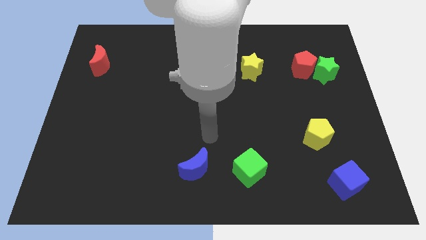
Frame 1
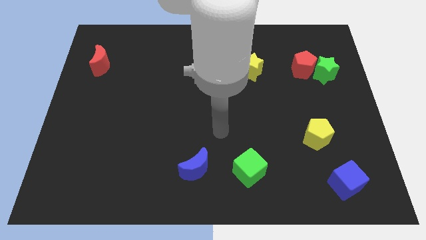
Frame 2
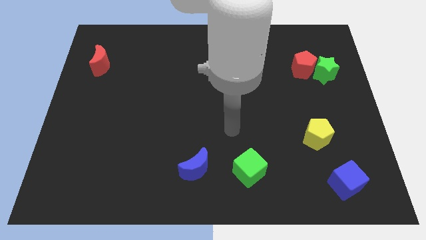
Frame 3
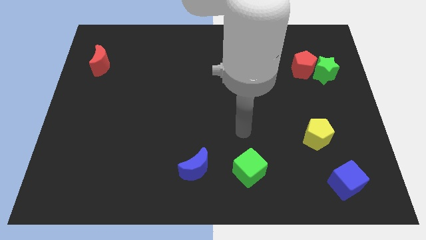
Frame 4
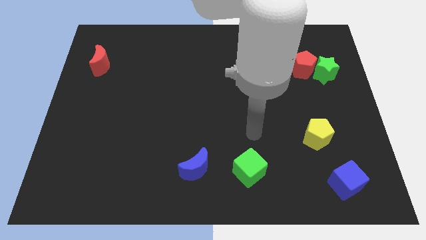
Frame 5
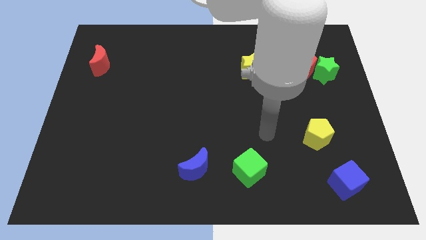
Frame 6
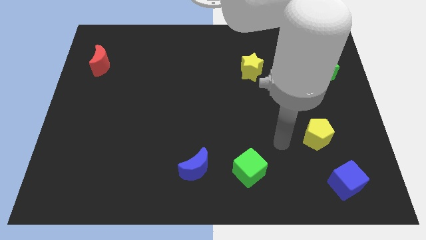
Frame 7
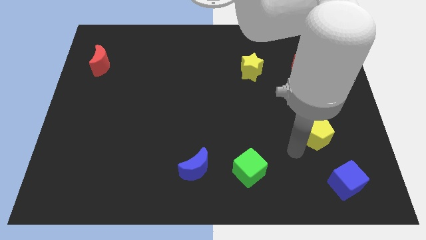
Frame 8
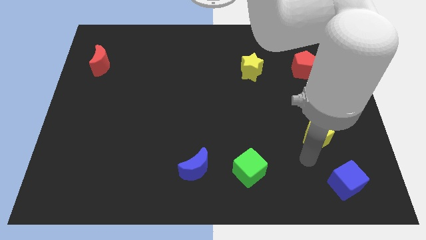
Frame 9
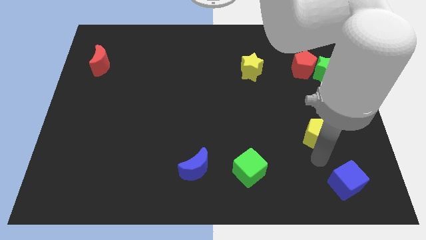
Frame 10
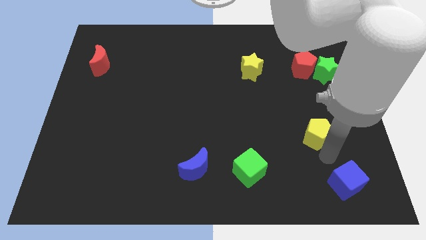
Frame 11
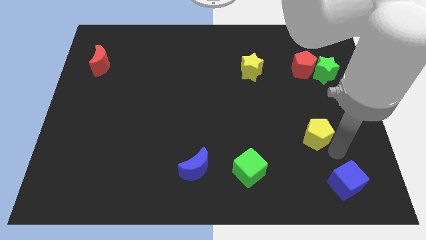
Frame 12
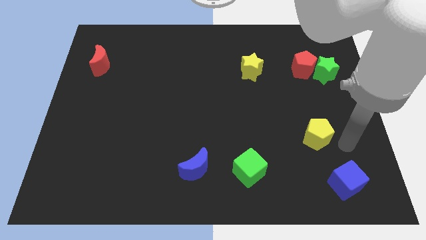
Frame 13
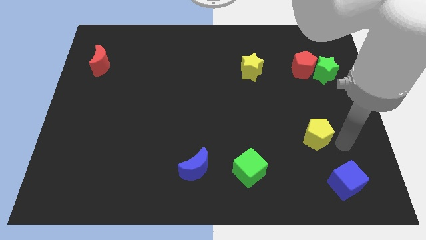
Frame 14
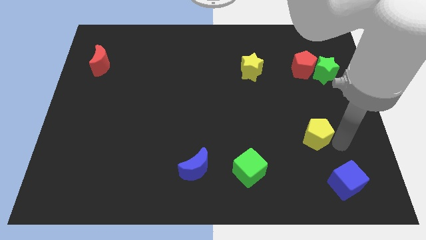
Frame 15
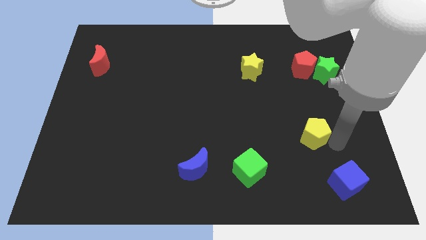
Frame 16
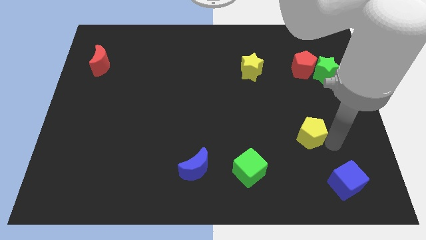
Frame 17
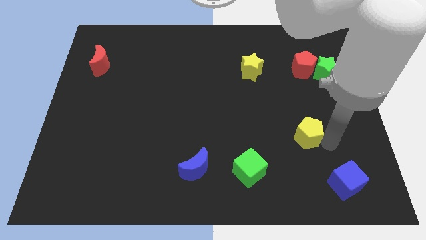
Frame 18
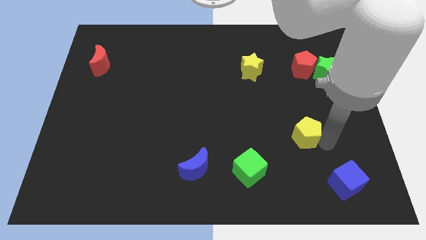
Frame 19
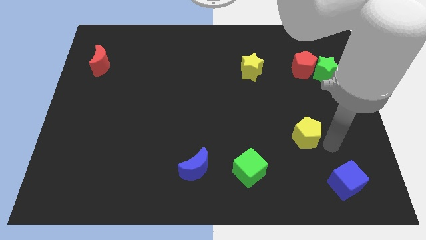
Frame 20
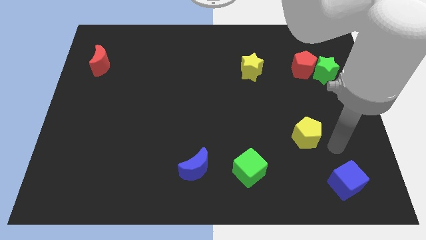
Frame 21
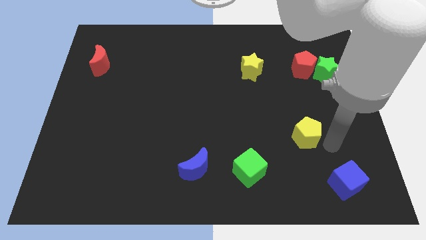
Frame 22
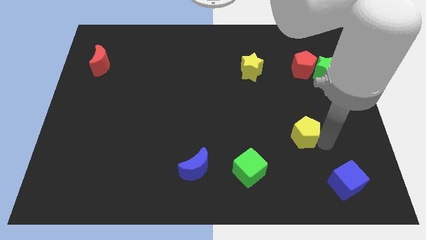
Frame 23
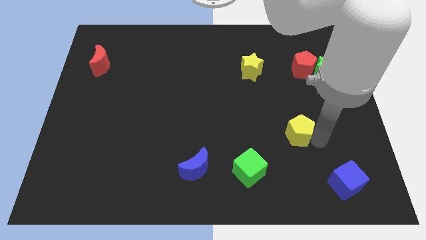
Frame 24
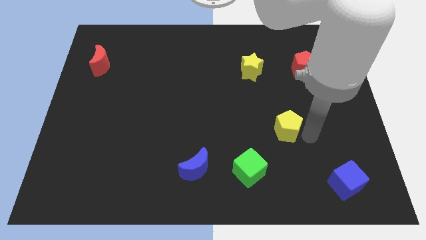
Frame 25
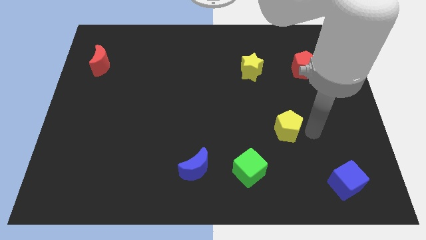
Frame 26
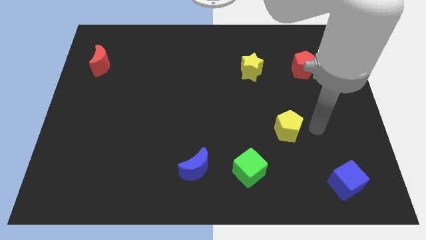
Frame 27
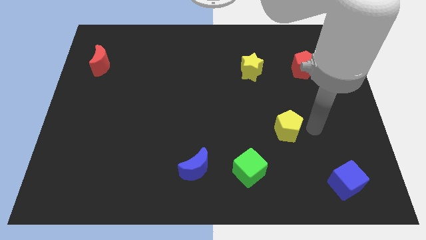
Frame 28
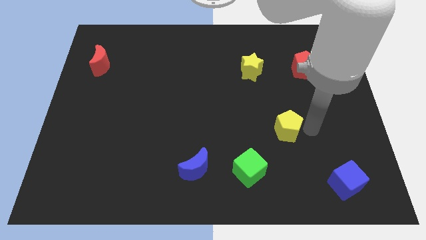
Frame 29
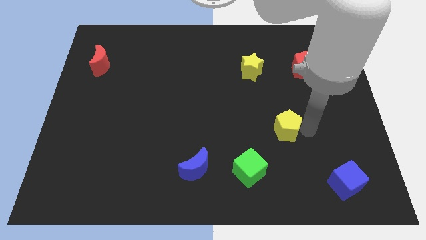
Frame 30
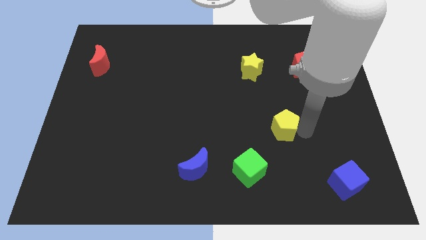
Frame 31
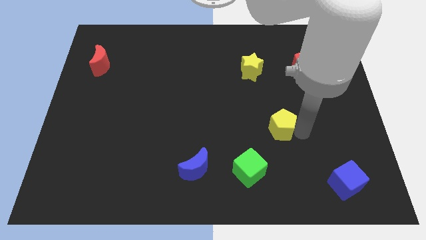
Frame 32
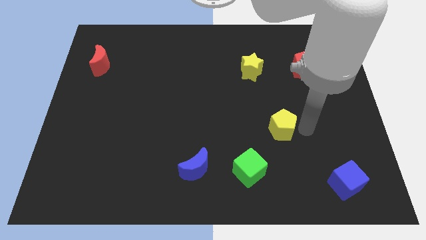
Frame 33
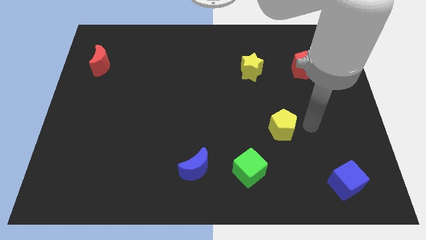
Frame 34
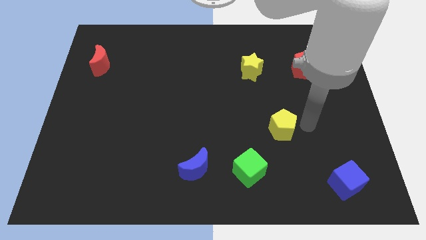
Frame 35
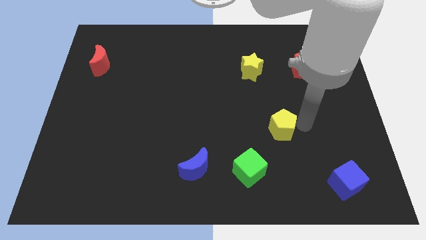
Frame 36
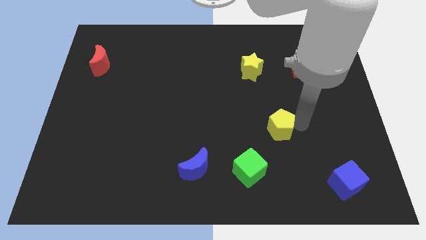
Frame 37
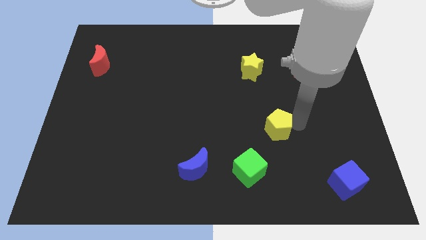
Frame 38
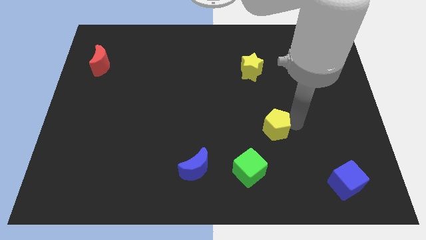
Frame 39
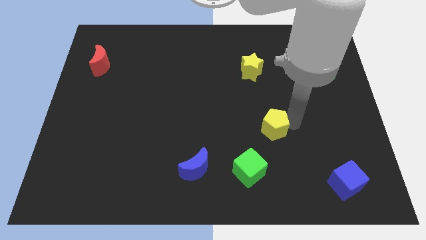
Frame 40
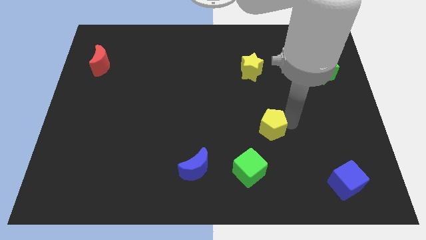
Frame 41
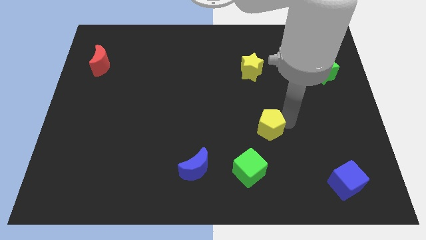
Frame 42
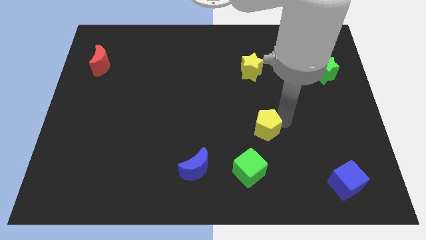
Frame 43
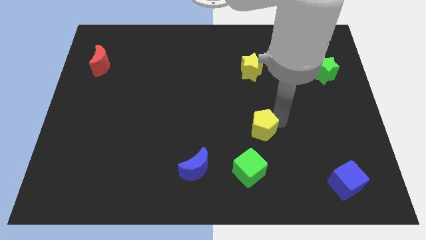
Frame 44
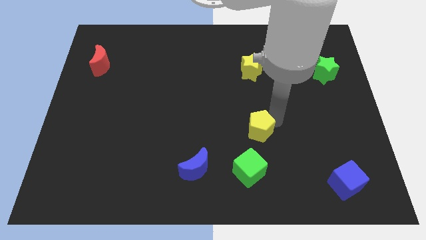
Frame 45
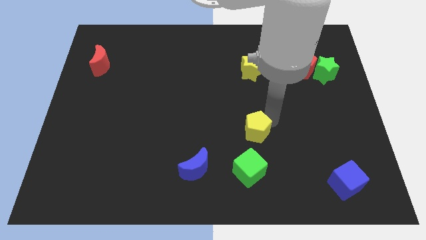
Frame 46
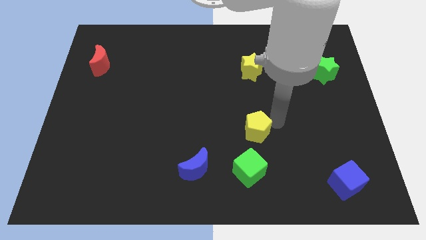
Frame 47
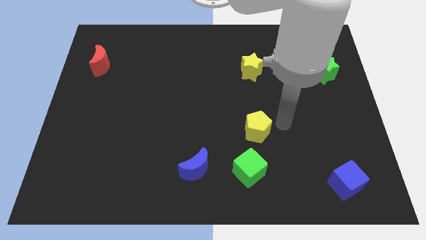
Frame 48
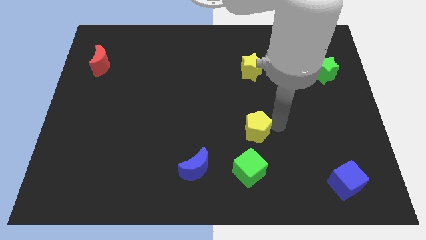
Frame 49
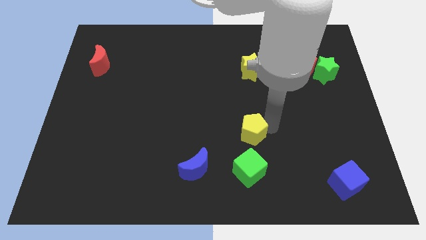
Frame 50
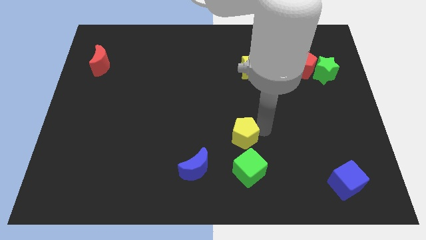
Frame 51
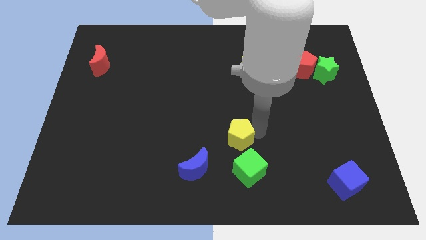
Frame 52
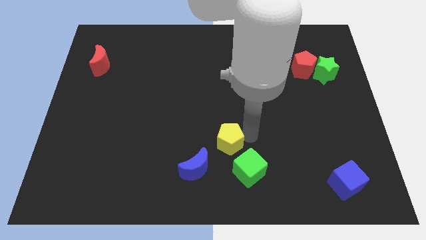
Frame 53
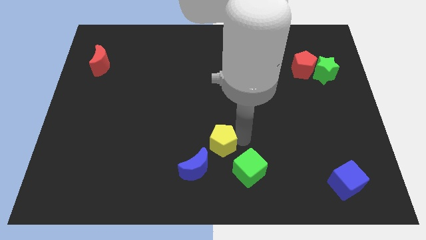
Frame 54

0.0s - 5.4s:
push the yellow pentagon left

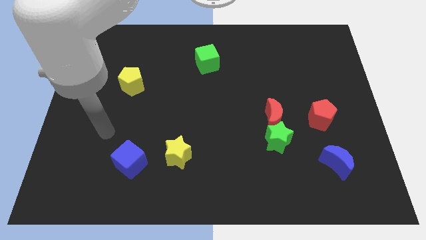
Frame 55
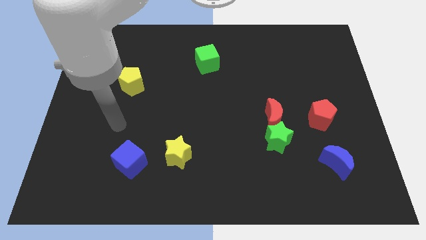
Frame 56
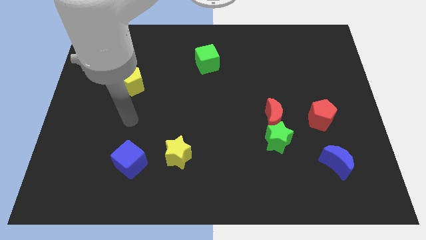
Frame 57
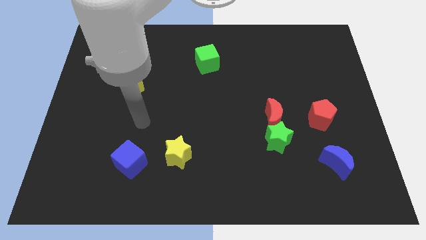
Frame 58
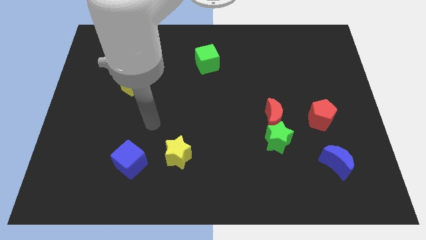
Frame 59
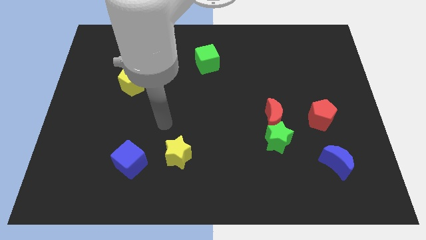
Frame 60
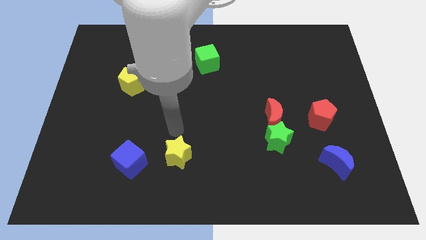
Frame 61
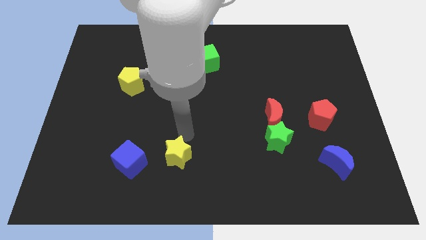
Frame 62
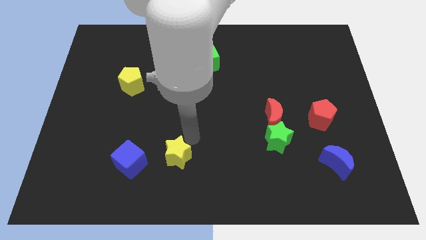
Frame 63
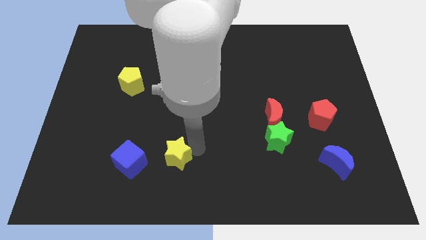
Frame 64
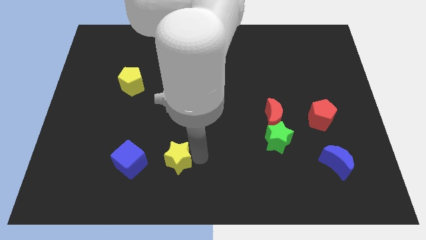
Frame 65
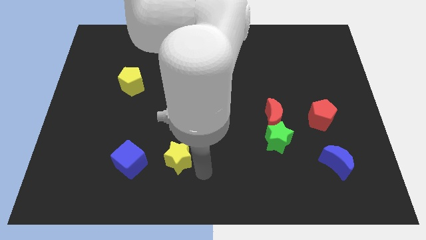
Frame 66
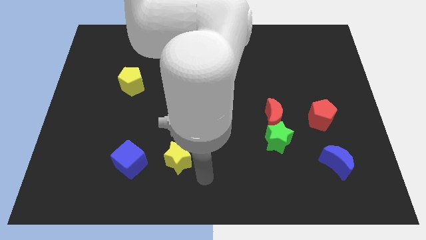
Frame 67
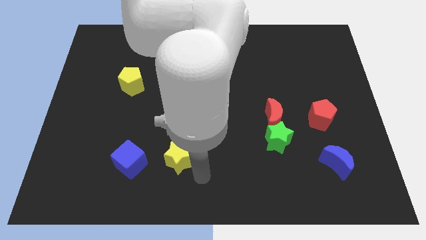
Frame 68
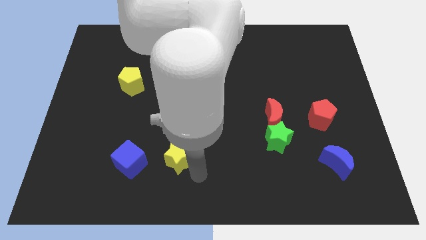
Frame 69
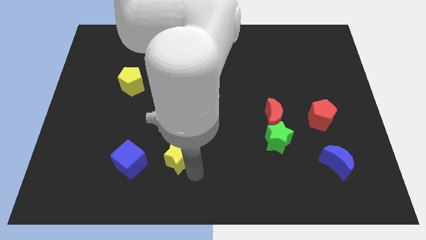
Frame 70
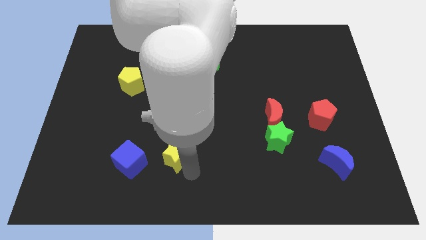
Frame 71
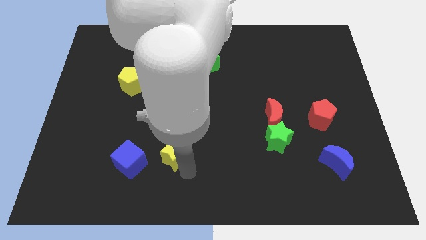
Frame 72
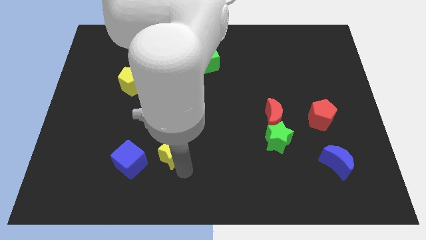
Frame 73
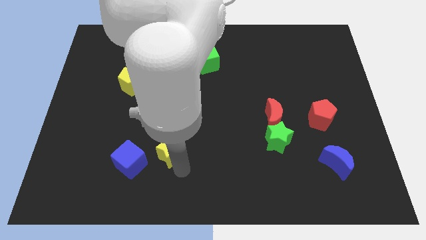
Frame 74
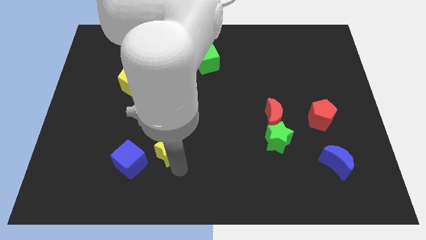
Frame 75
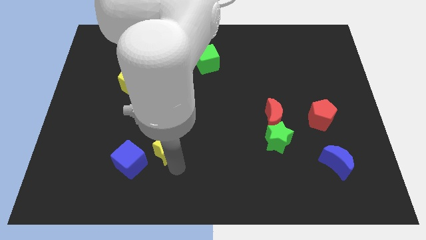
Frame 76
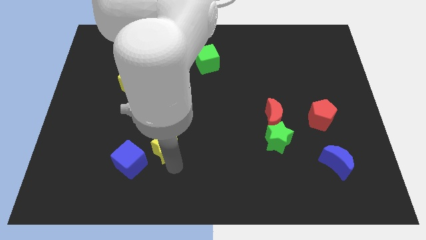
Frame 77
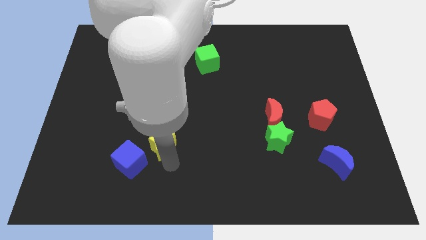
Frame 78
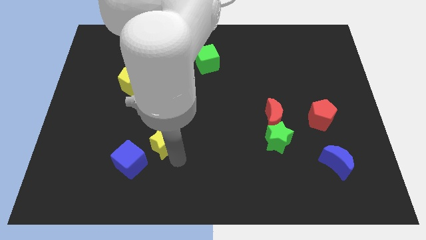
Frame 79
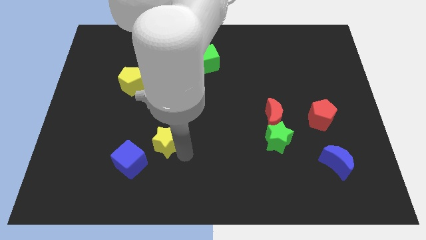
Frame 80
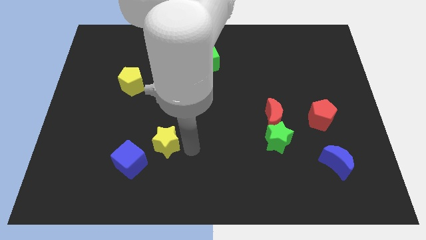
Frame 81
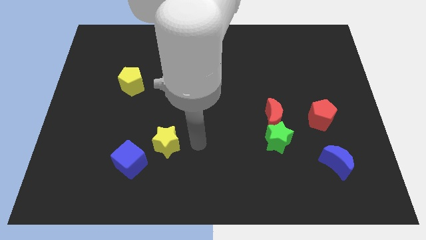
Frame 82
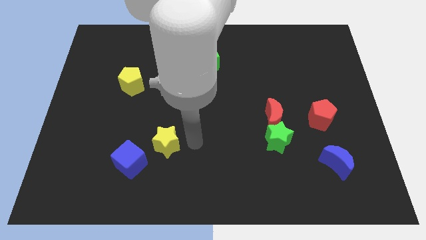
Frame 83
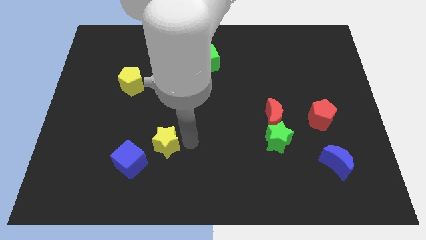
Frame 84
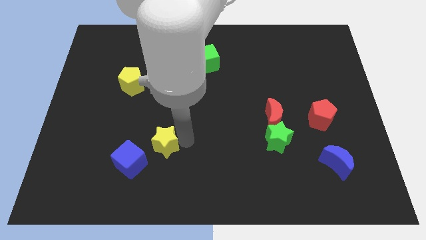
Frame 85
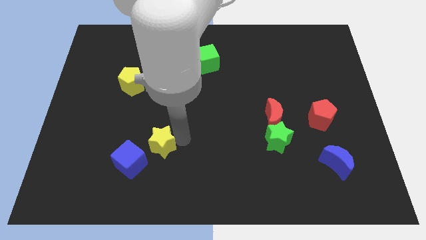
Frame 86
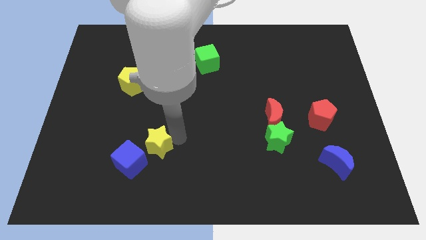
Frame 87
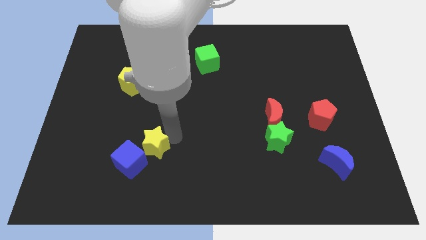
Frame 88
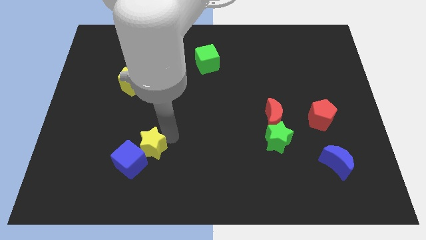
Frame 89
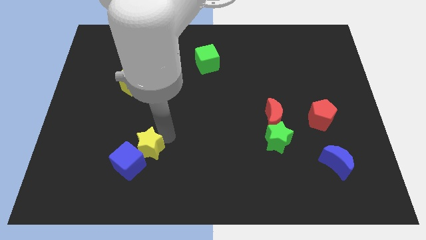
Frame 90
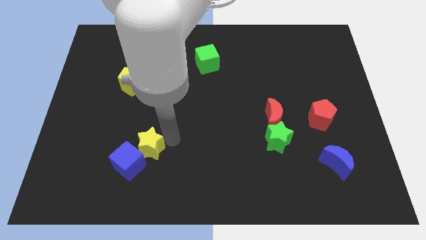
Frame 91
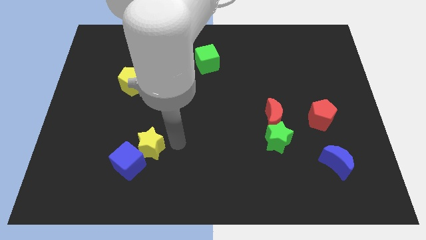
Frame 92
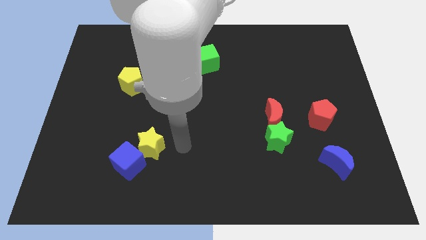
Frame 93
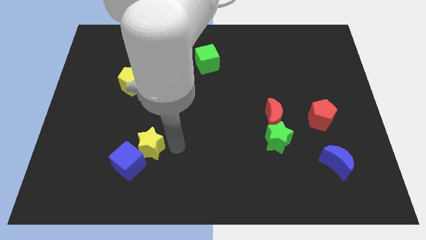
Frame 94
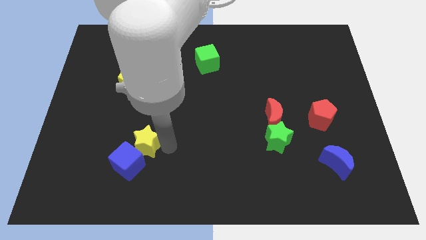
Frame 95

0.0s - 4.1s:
push the yellow star to the left a little
